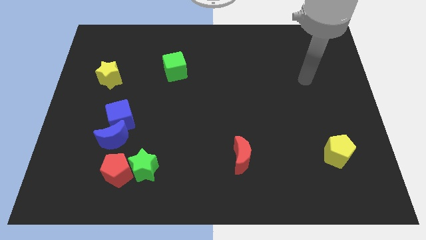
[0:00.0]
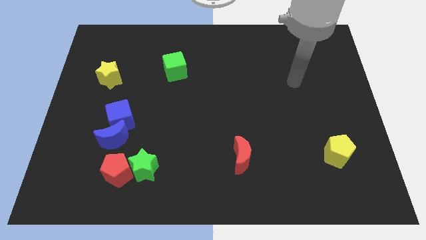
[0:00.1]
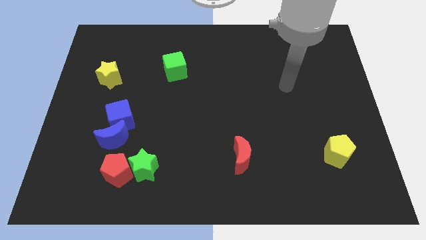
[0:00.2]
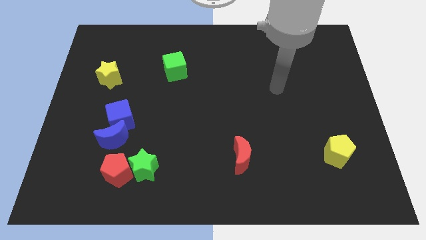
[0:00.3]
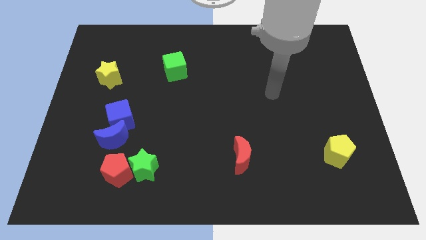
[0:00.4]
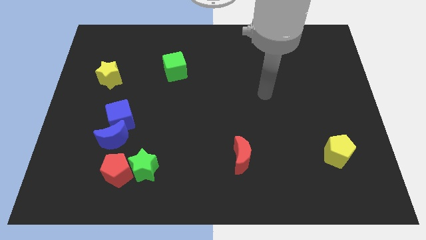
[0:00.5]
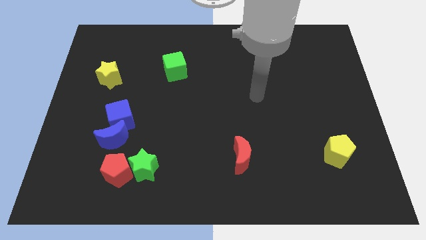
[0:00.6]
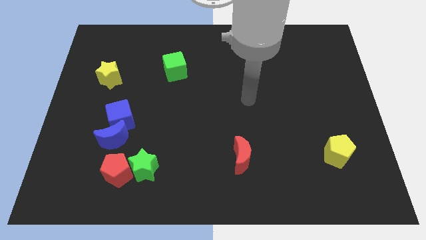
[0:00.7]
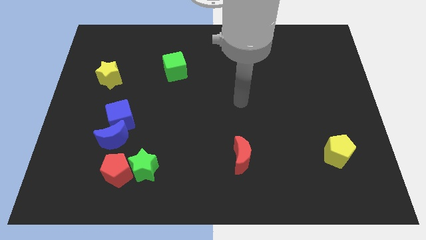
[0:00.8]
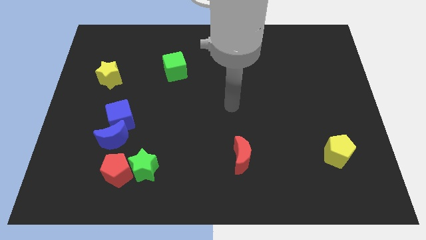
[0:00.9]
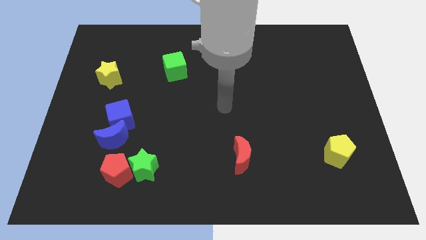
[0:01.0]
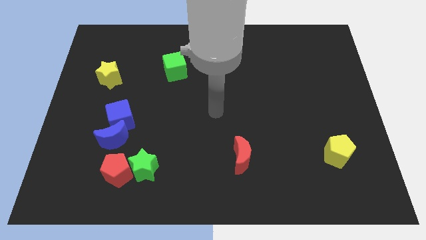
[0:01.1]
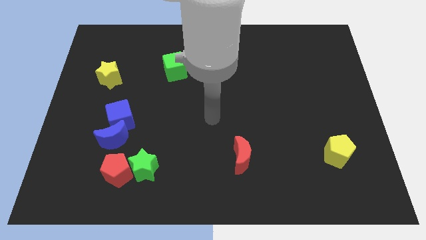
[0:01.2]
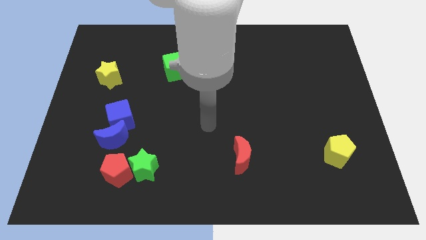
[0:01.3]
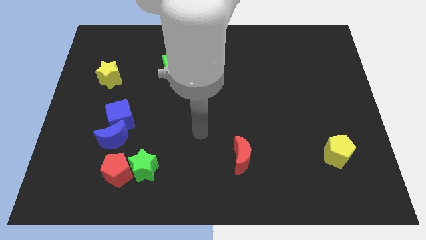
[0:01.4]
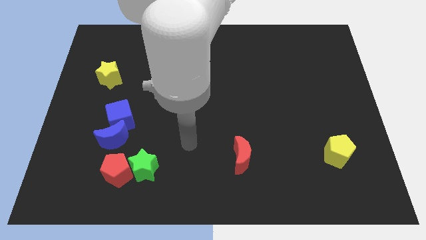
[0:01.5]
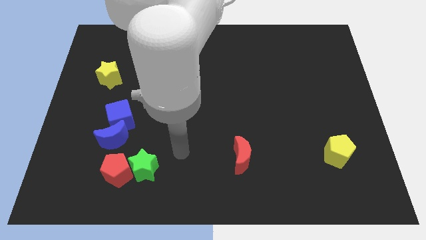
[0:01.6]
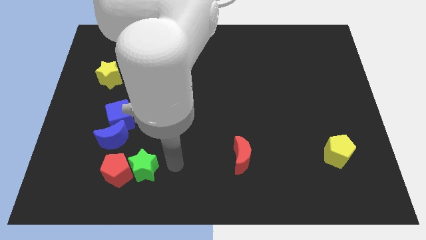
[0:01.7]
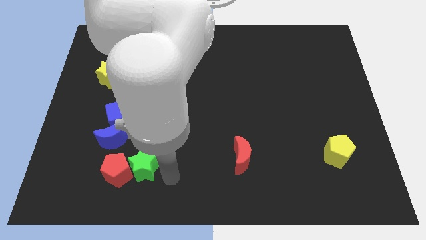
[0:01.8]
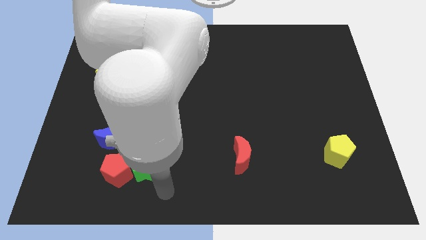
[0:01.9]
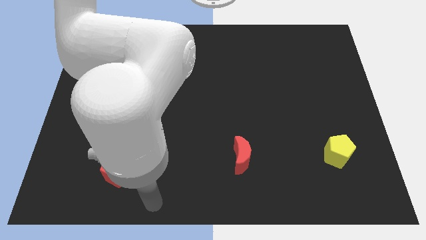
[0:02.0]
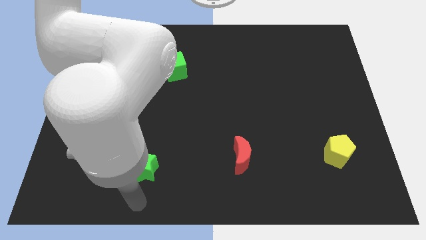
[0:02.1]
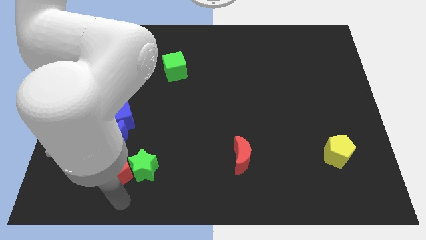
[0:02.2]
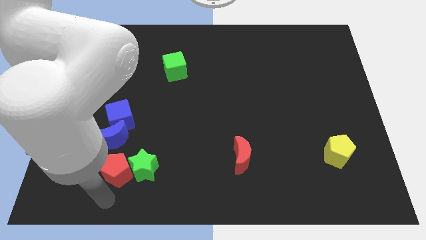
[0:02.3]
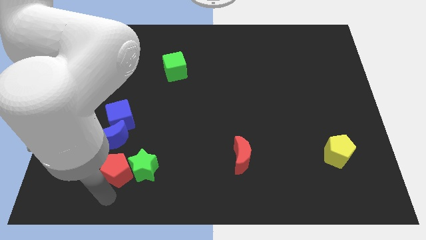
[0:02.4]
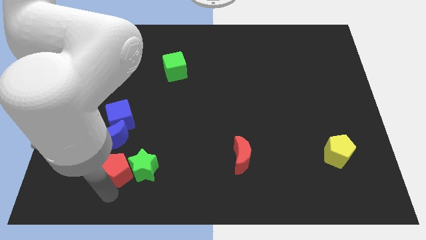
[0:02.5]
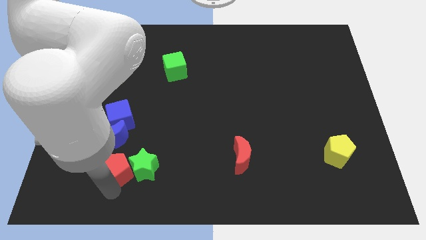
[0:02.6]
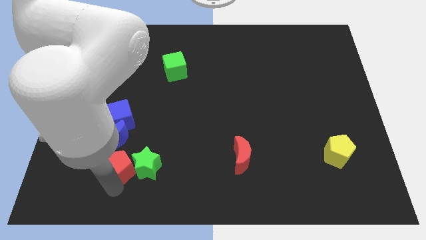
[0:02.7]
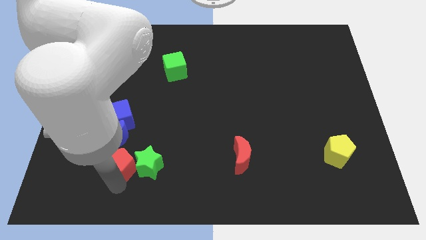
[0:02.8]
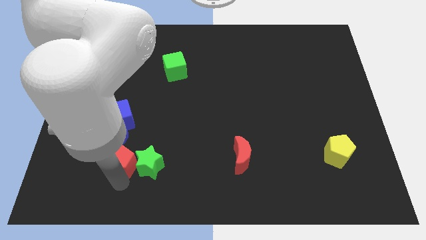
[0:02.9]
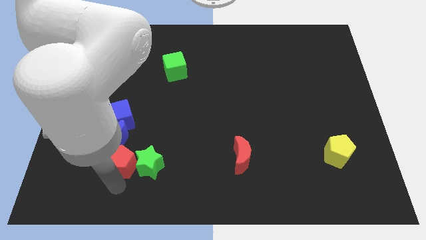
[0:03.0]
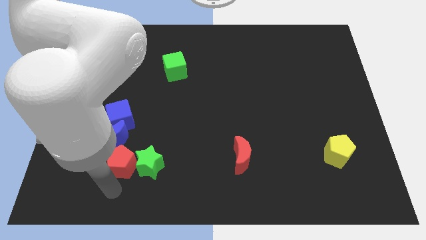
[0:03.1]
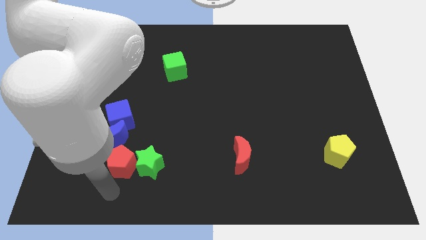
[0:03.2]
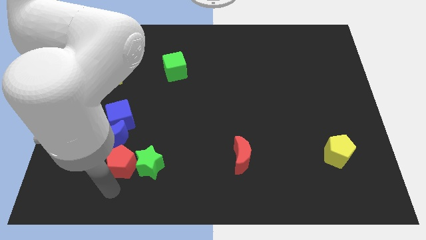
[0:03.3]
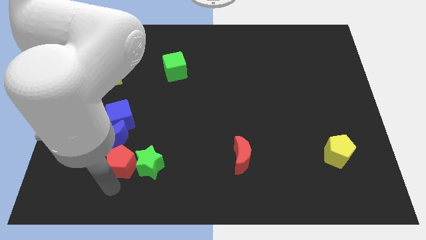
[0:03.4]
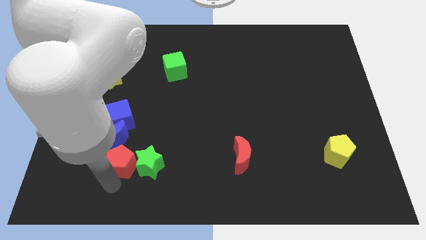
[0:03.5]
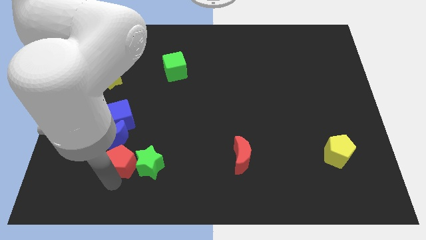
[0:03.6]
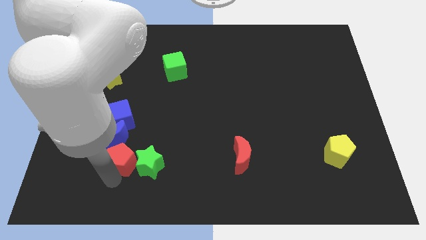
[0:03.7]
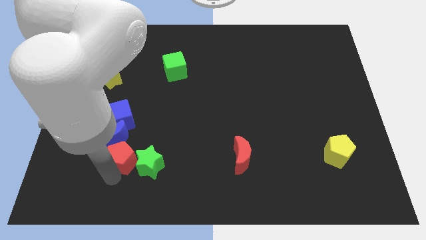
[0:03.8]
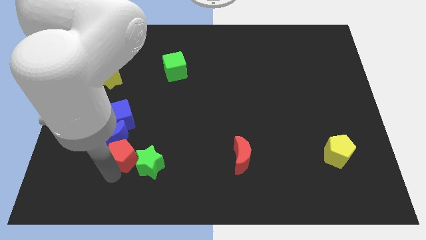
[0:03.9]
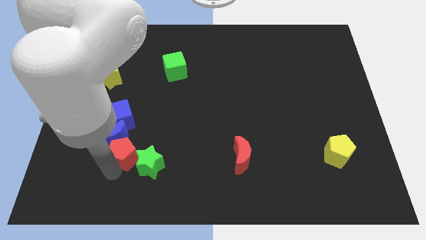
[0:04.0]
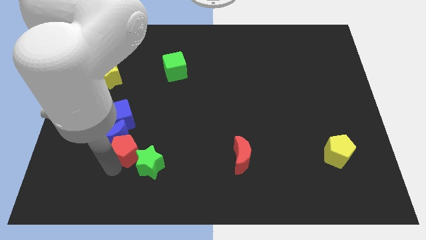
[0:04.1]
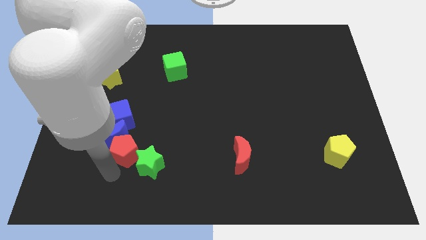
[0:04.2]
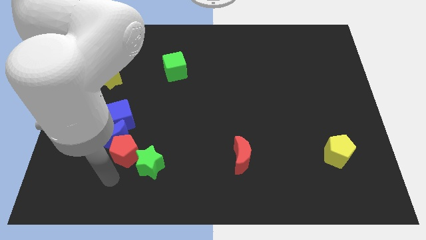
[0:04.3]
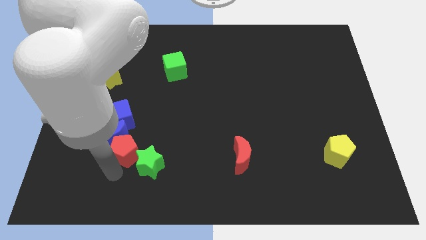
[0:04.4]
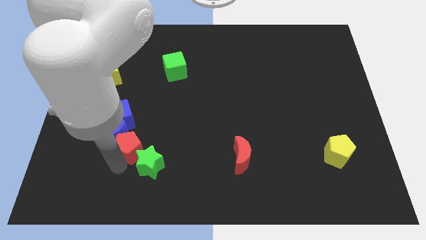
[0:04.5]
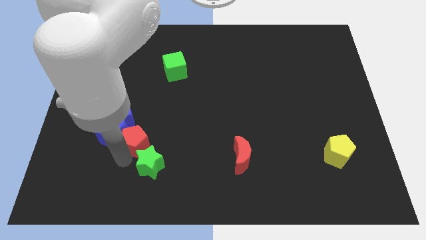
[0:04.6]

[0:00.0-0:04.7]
push the red pentagon a little bit up

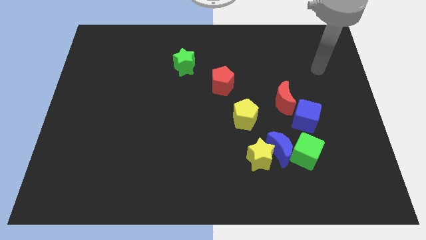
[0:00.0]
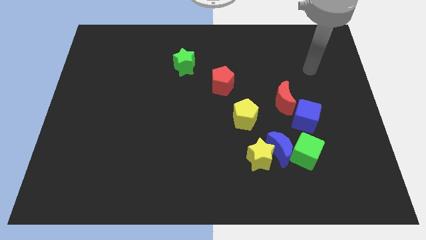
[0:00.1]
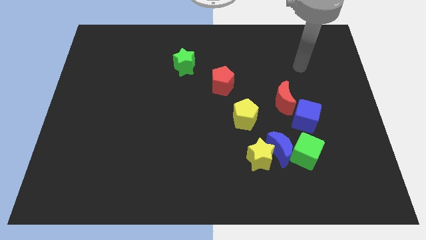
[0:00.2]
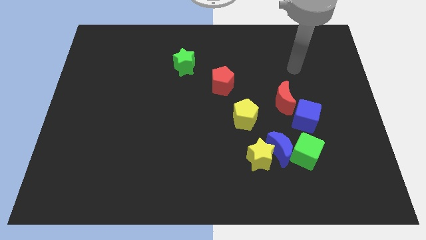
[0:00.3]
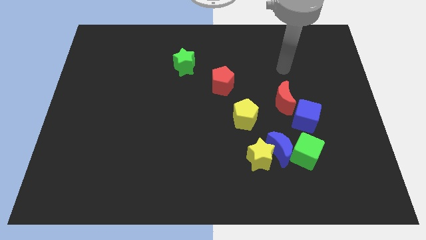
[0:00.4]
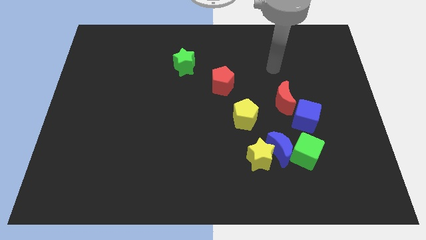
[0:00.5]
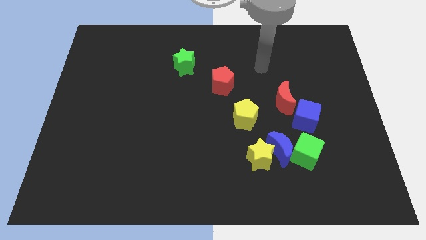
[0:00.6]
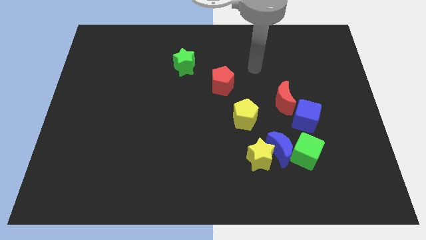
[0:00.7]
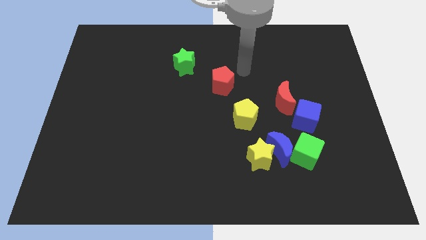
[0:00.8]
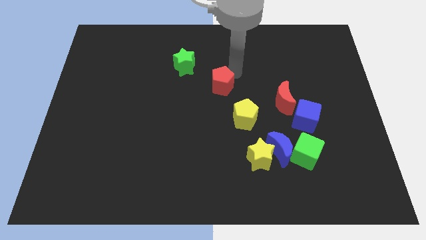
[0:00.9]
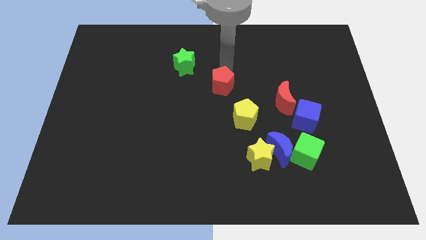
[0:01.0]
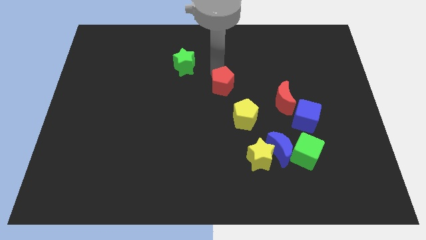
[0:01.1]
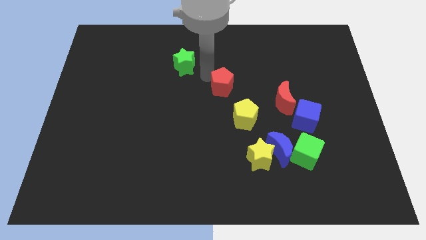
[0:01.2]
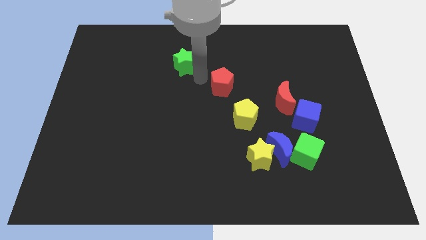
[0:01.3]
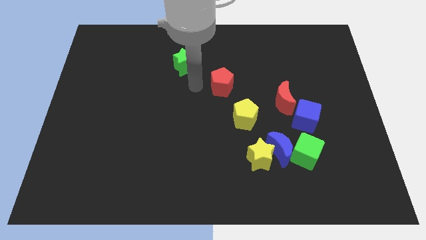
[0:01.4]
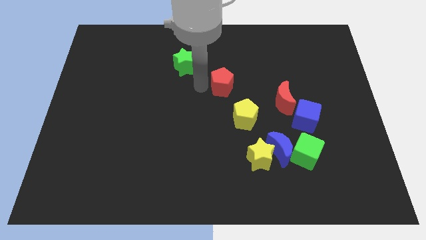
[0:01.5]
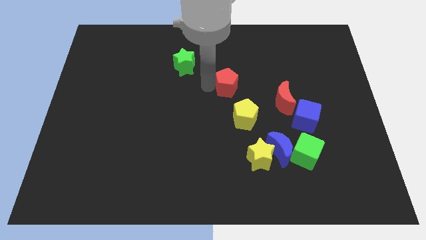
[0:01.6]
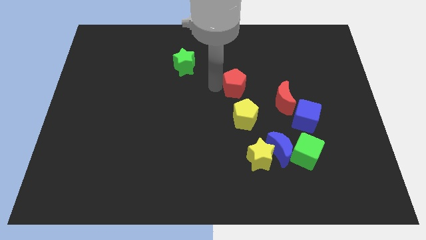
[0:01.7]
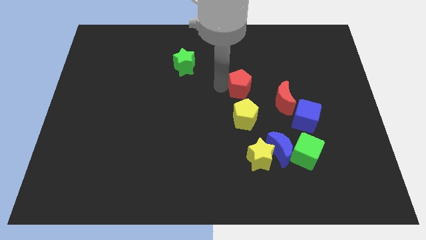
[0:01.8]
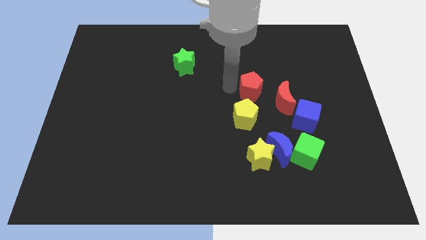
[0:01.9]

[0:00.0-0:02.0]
slightly slide the red pentagon right

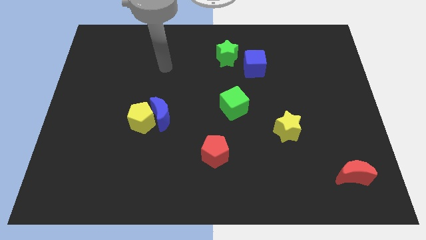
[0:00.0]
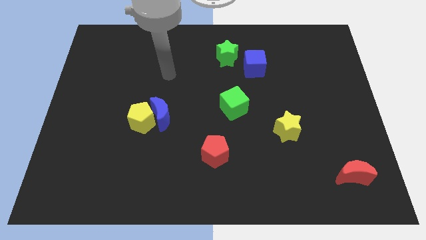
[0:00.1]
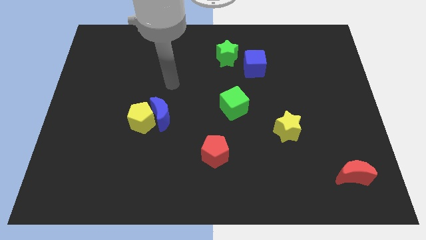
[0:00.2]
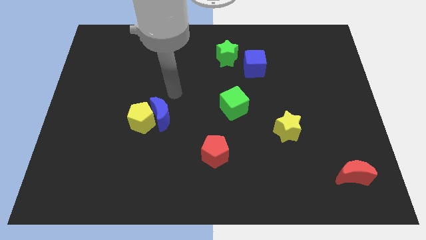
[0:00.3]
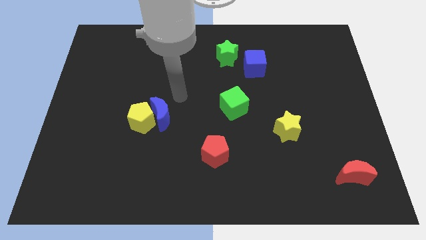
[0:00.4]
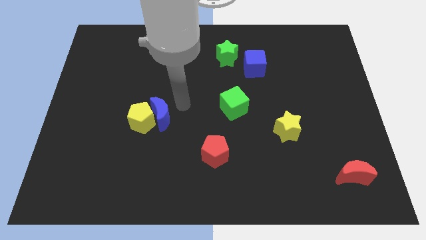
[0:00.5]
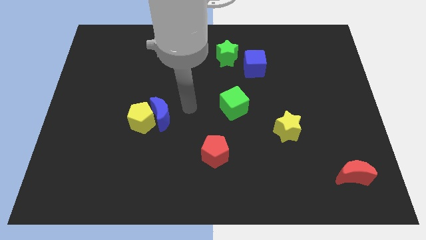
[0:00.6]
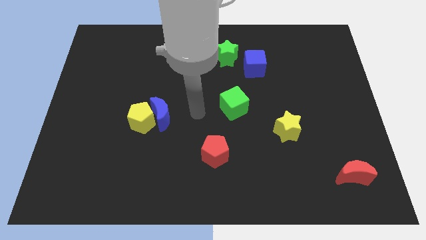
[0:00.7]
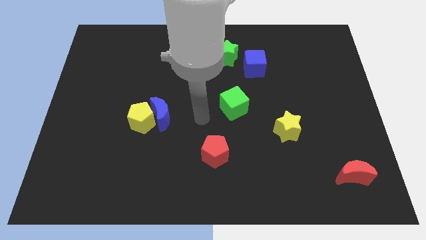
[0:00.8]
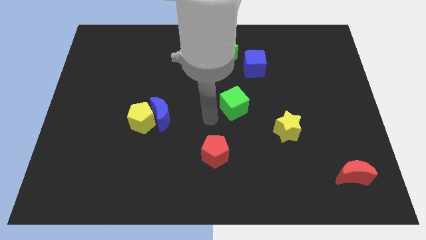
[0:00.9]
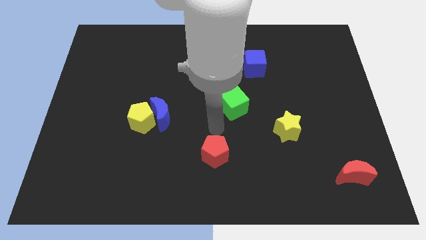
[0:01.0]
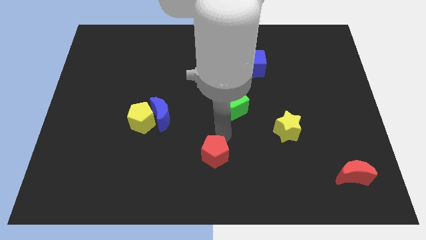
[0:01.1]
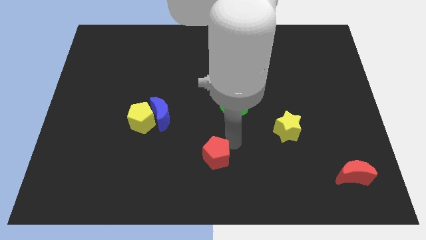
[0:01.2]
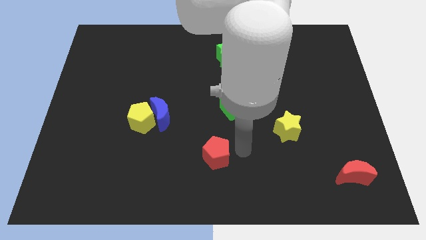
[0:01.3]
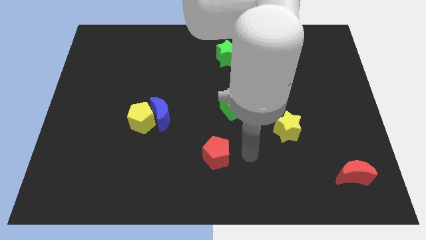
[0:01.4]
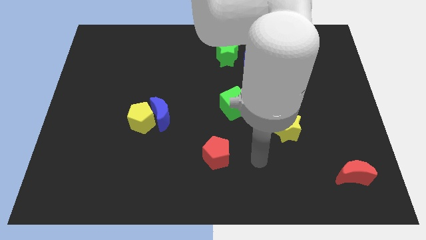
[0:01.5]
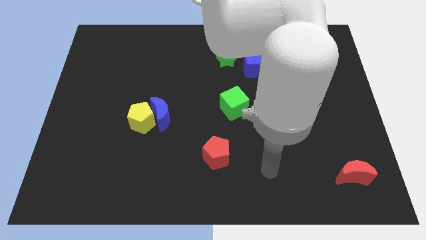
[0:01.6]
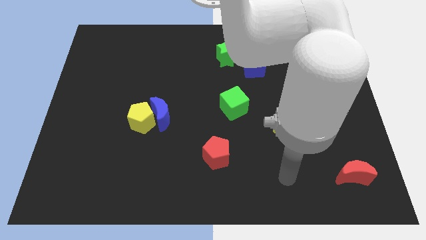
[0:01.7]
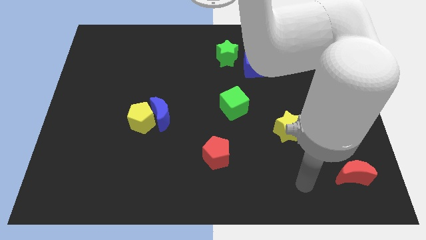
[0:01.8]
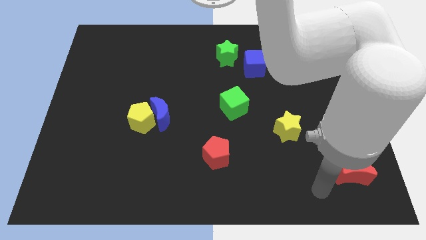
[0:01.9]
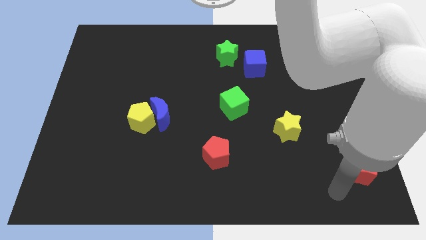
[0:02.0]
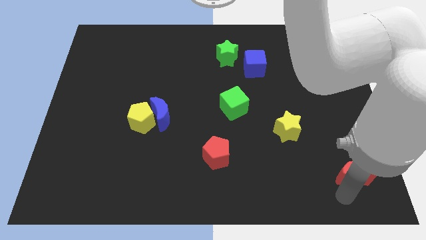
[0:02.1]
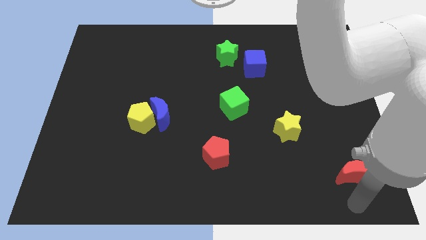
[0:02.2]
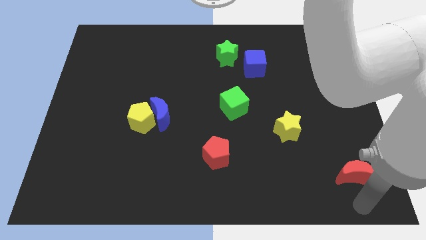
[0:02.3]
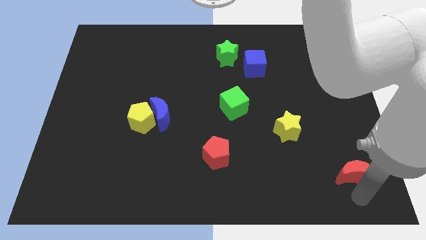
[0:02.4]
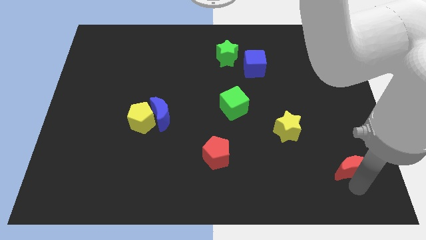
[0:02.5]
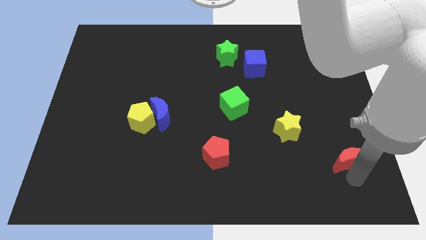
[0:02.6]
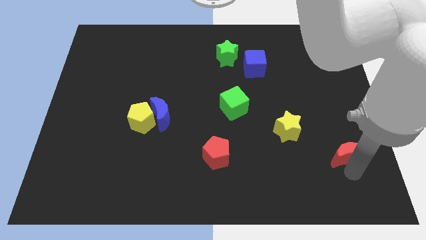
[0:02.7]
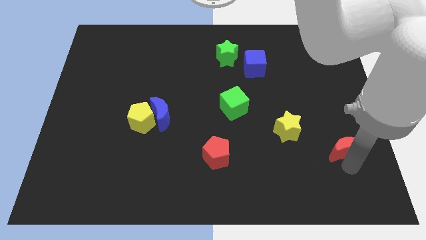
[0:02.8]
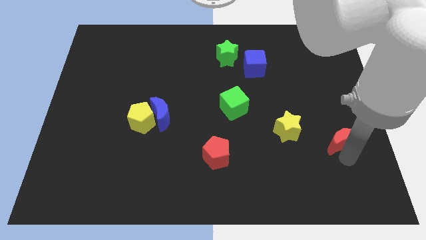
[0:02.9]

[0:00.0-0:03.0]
move the red moon a bit up
